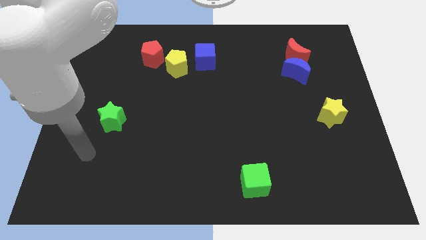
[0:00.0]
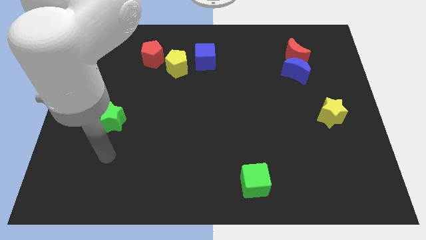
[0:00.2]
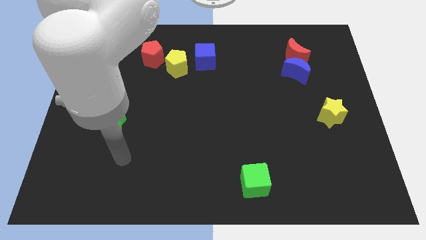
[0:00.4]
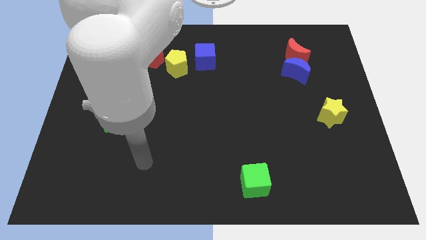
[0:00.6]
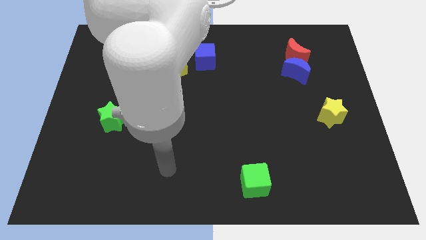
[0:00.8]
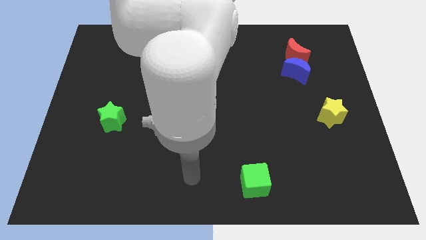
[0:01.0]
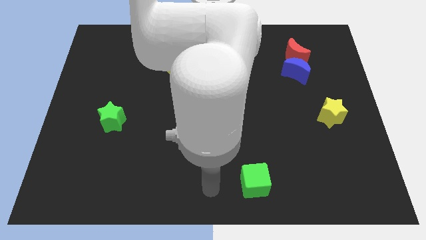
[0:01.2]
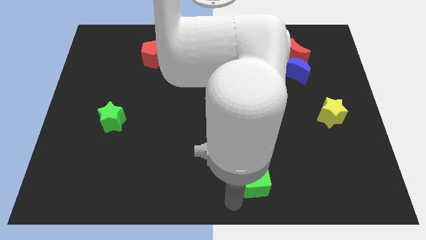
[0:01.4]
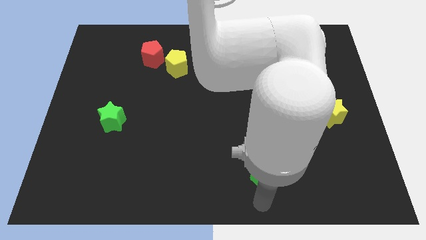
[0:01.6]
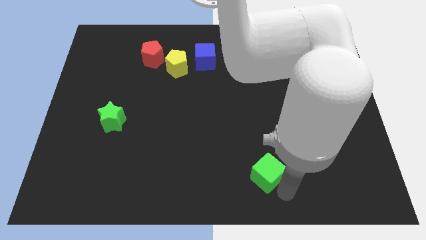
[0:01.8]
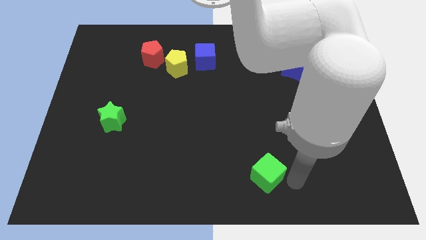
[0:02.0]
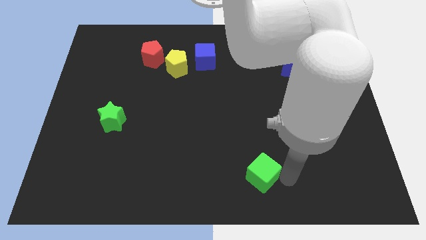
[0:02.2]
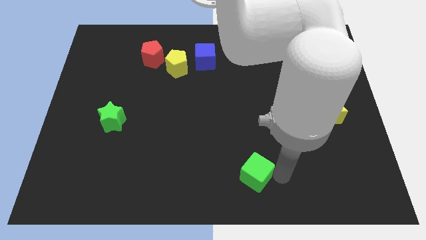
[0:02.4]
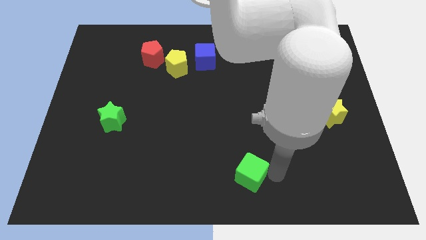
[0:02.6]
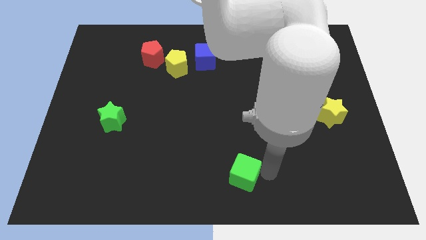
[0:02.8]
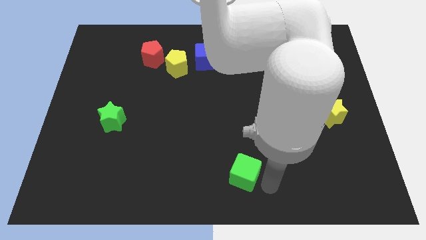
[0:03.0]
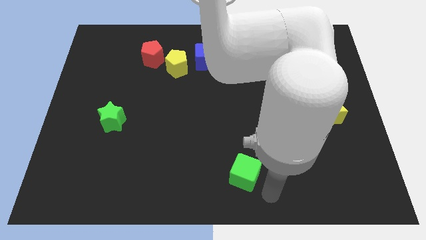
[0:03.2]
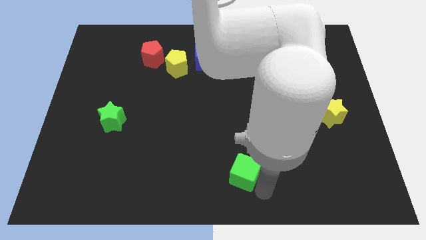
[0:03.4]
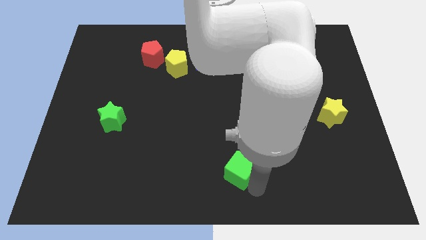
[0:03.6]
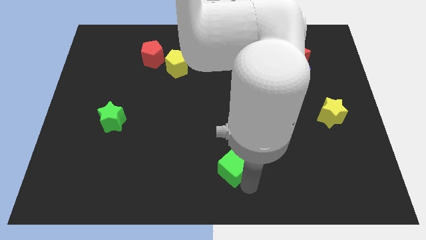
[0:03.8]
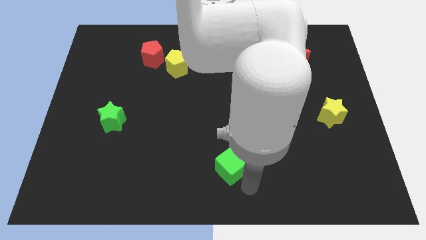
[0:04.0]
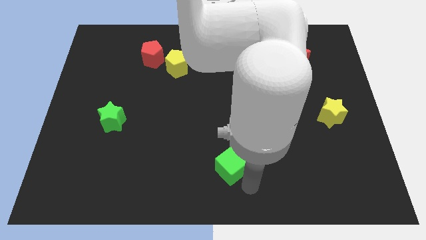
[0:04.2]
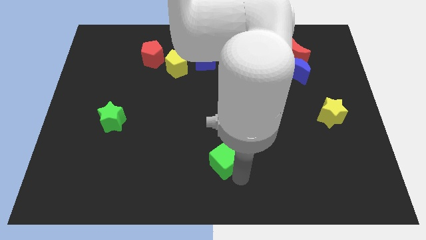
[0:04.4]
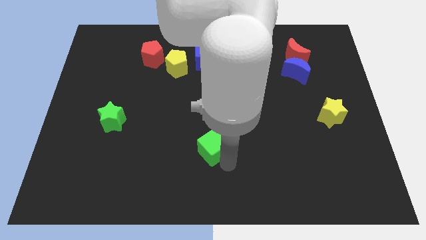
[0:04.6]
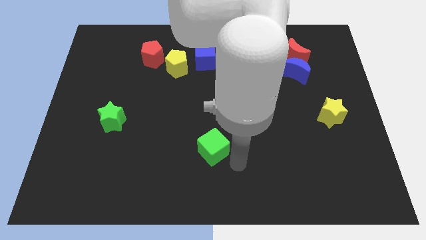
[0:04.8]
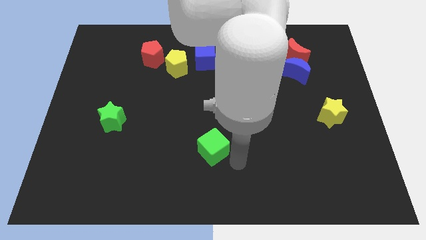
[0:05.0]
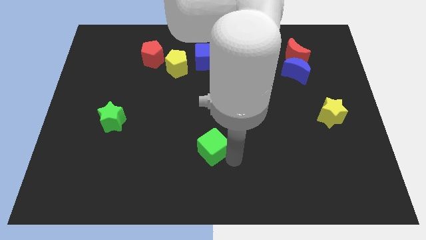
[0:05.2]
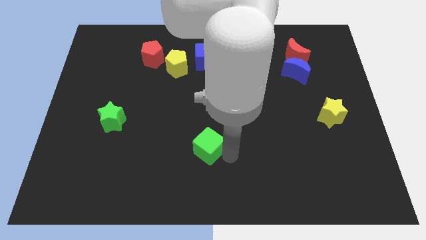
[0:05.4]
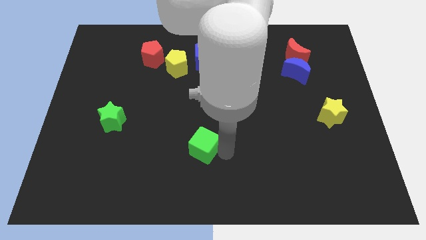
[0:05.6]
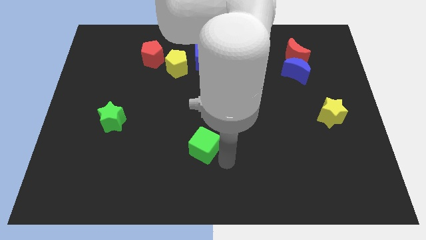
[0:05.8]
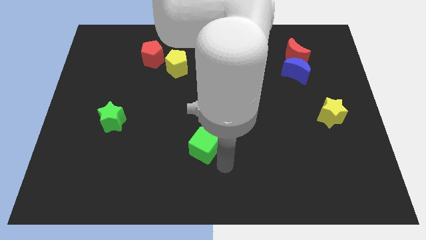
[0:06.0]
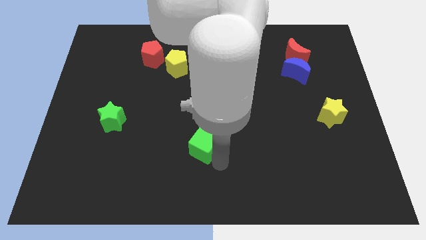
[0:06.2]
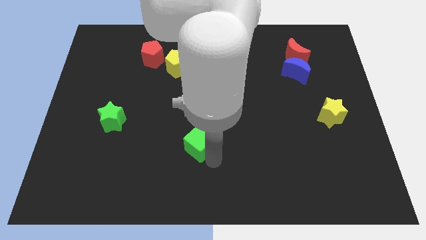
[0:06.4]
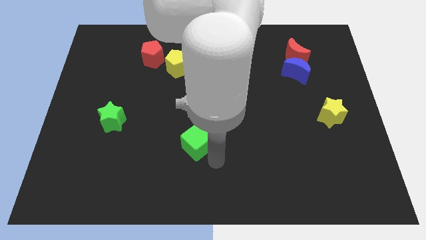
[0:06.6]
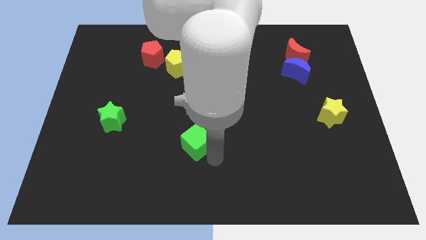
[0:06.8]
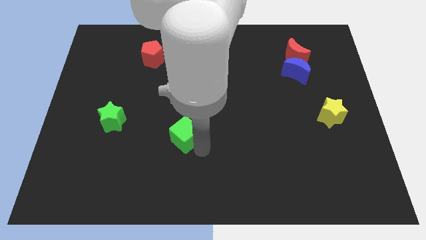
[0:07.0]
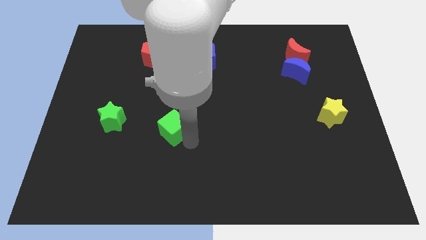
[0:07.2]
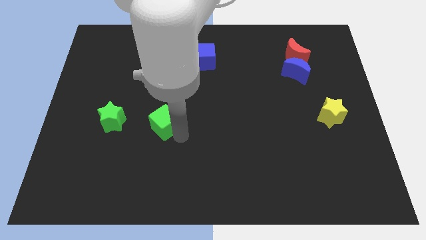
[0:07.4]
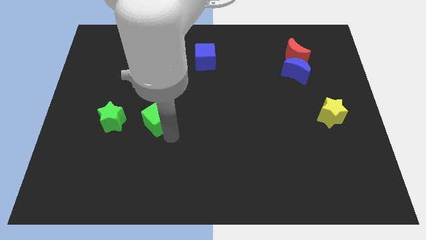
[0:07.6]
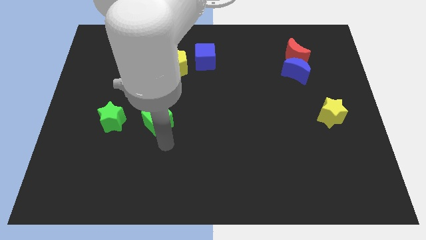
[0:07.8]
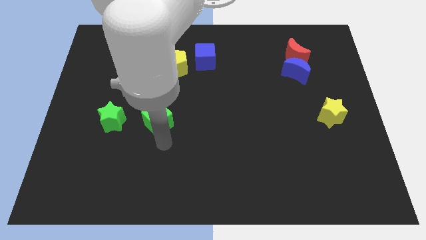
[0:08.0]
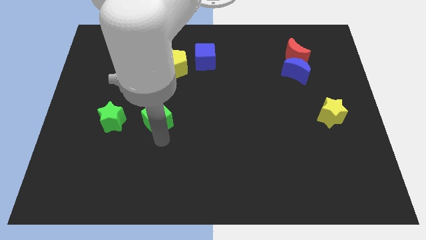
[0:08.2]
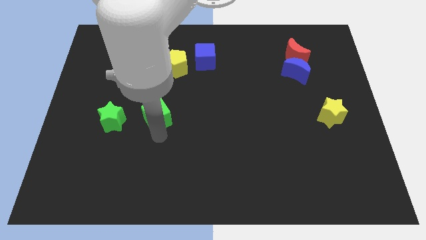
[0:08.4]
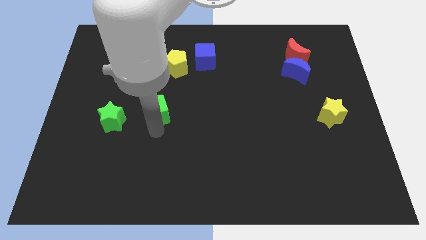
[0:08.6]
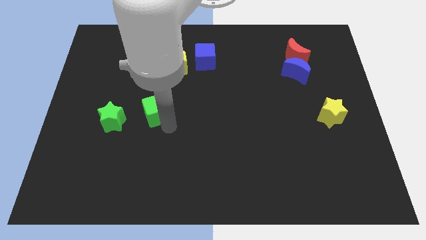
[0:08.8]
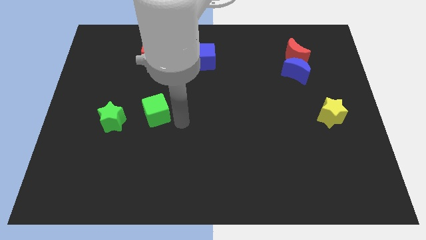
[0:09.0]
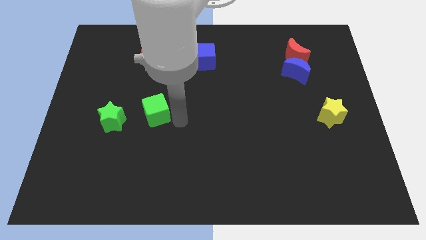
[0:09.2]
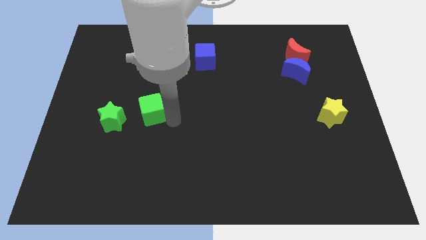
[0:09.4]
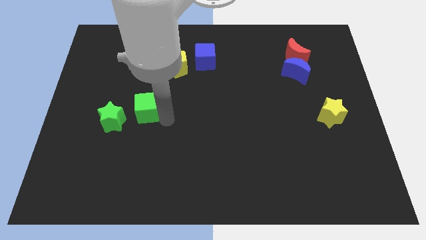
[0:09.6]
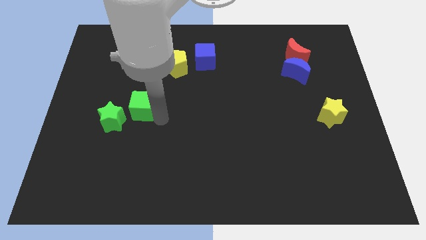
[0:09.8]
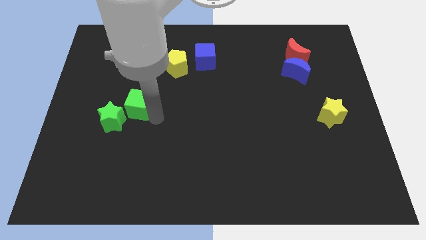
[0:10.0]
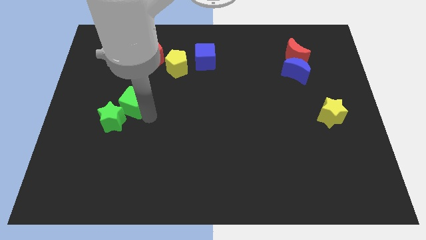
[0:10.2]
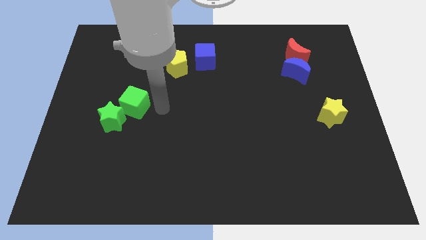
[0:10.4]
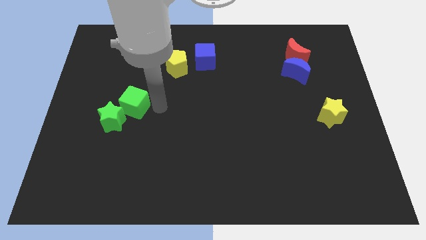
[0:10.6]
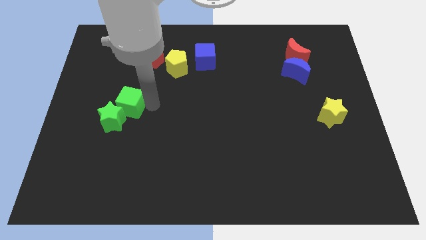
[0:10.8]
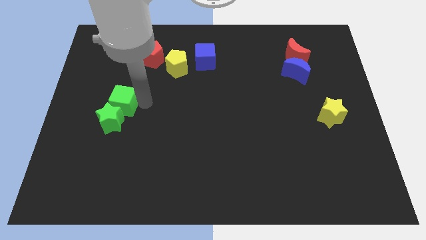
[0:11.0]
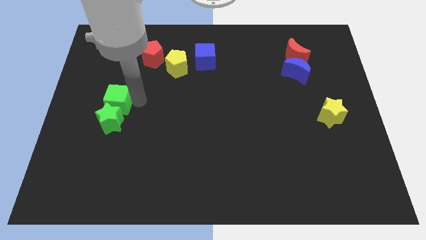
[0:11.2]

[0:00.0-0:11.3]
push the green cube to the top left side of the green star

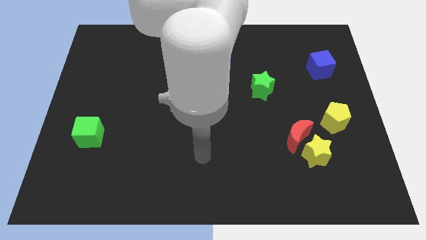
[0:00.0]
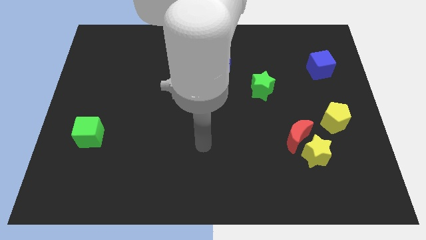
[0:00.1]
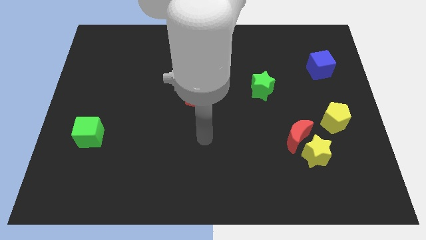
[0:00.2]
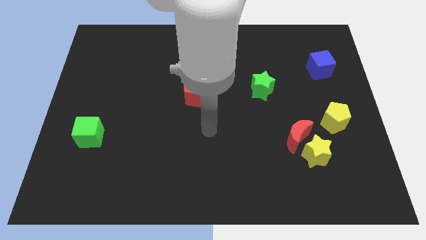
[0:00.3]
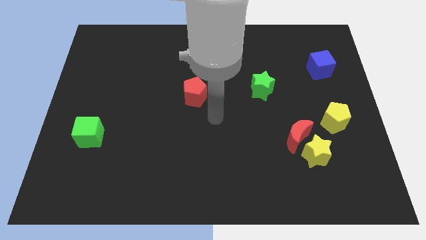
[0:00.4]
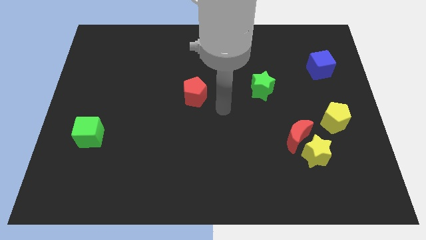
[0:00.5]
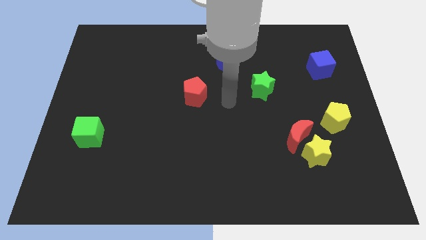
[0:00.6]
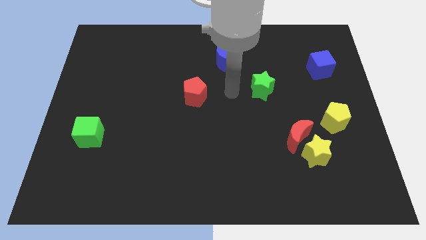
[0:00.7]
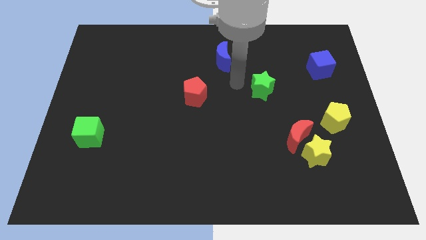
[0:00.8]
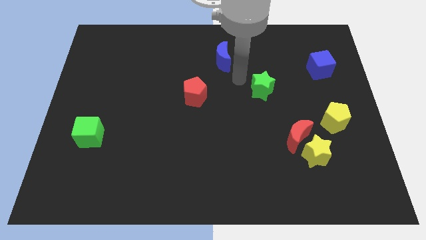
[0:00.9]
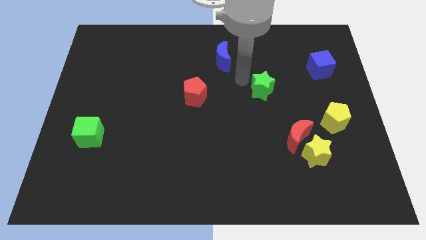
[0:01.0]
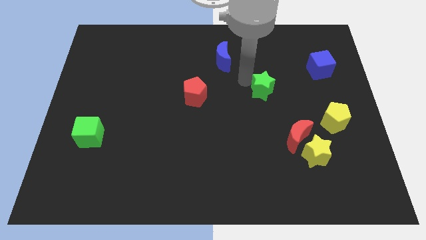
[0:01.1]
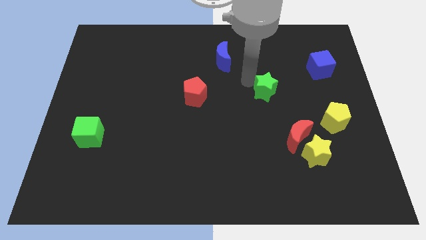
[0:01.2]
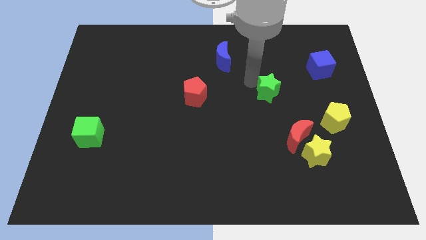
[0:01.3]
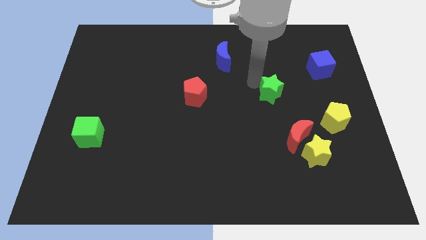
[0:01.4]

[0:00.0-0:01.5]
put the green star above the red moon

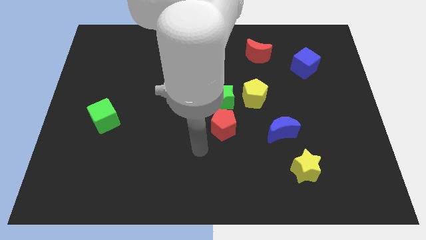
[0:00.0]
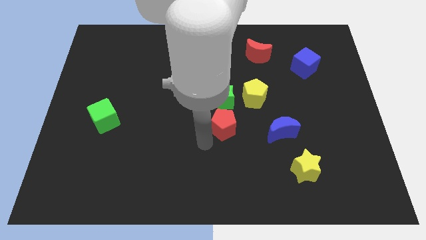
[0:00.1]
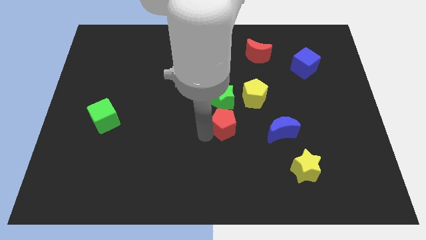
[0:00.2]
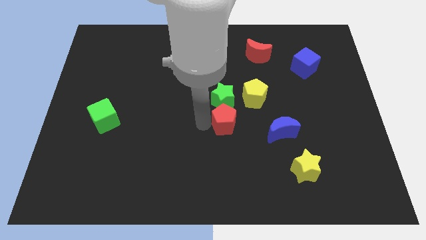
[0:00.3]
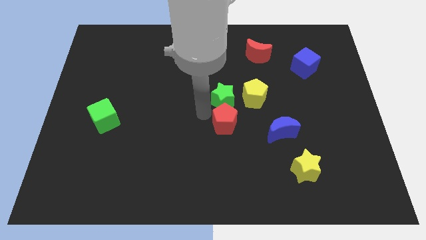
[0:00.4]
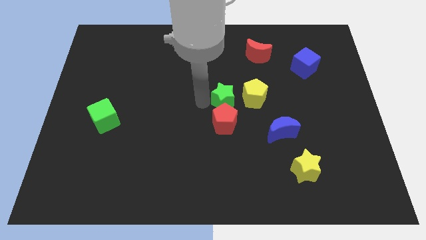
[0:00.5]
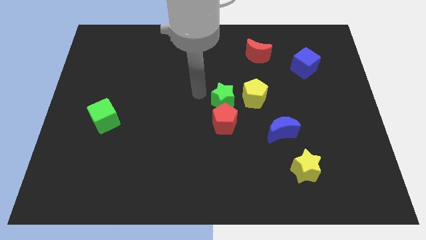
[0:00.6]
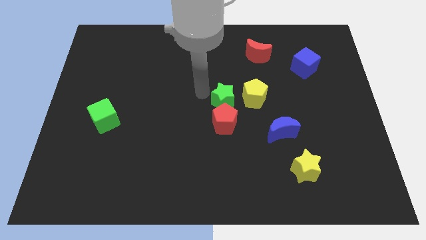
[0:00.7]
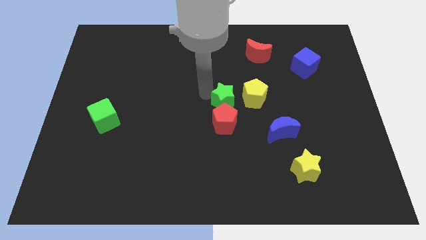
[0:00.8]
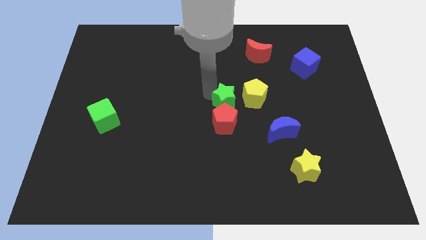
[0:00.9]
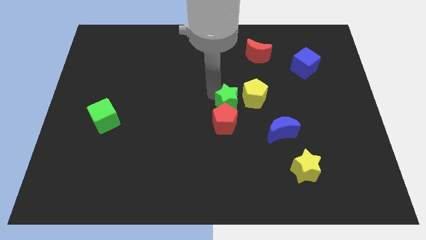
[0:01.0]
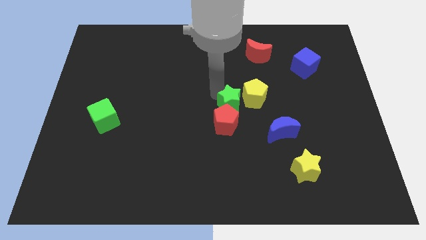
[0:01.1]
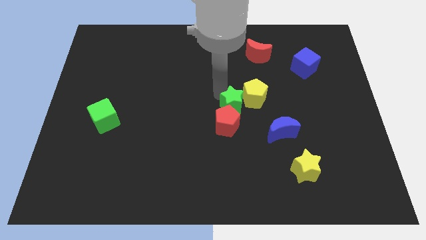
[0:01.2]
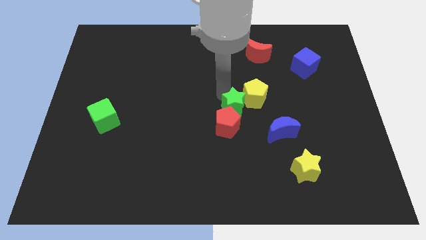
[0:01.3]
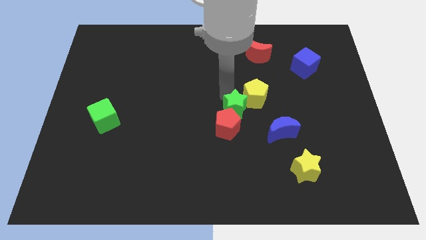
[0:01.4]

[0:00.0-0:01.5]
slide the green star to the top left of the blue moon
